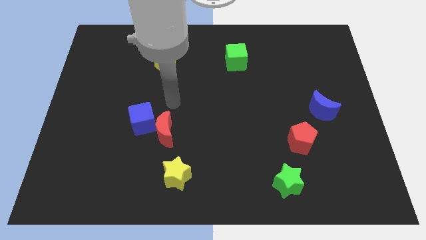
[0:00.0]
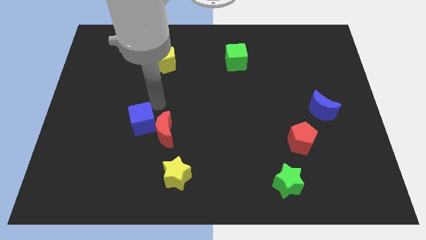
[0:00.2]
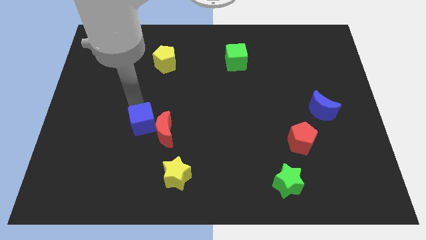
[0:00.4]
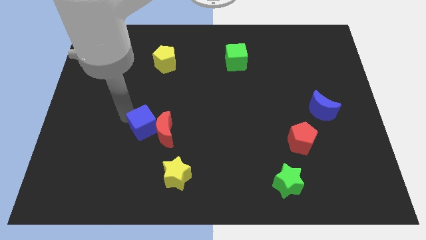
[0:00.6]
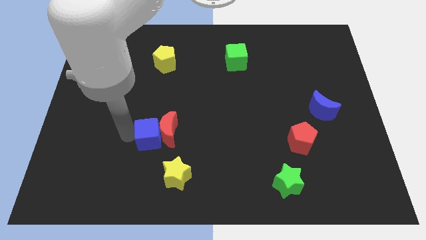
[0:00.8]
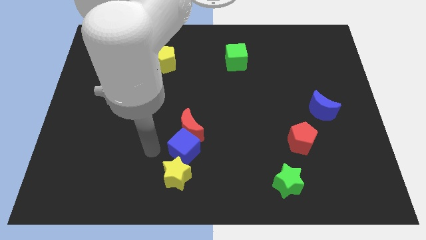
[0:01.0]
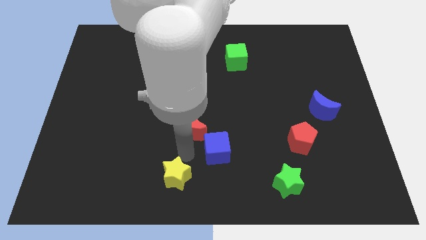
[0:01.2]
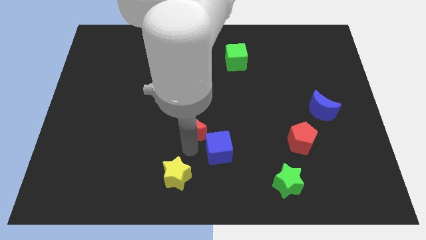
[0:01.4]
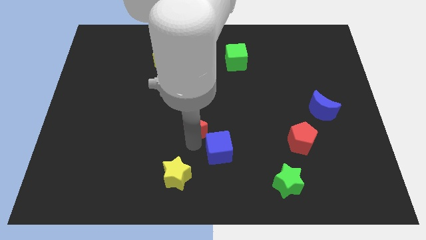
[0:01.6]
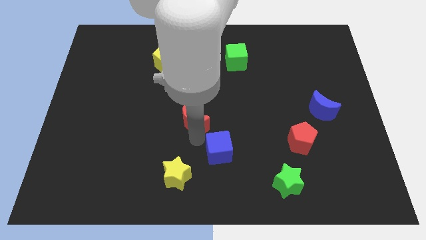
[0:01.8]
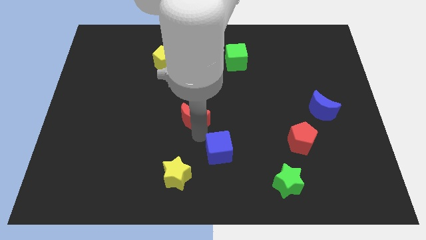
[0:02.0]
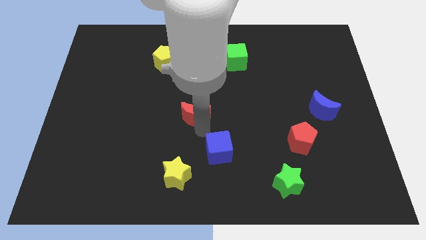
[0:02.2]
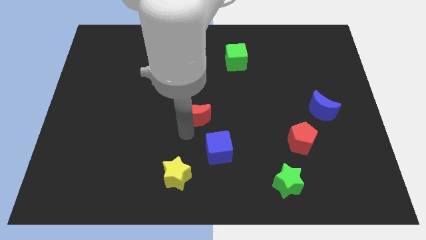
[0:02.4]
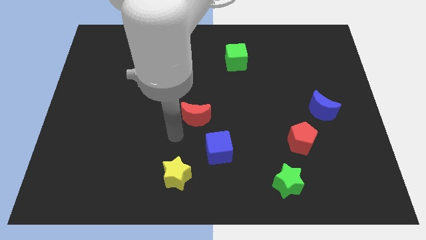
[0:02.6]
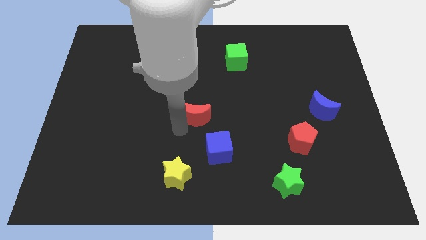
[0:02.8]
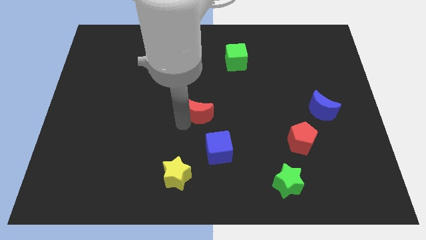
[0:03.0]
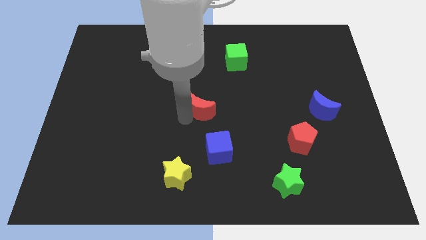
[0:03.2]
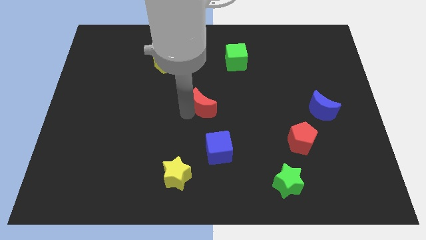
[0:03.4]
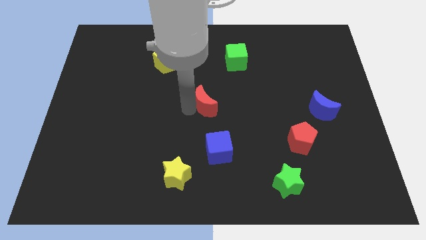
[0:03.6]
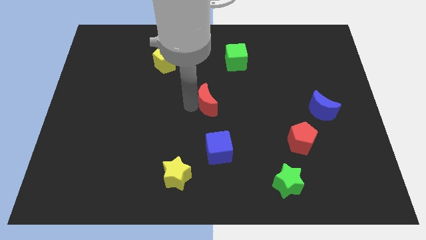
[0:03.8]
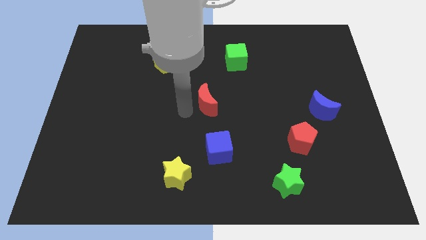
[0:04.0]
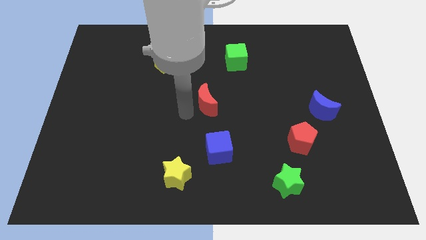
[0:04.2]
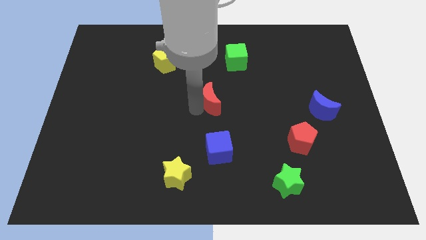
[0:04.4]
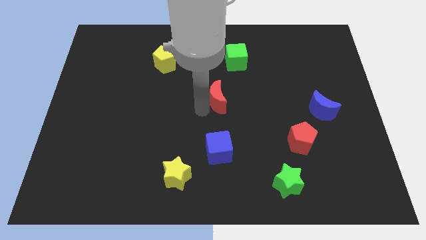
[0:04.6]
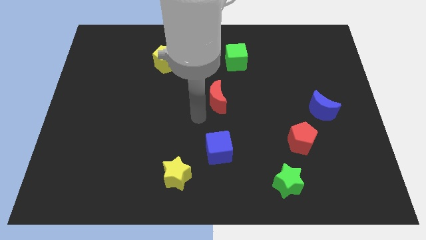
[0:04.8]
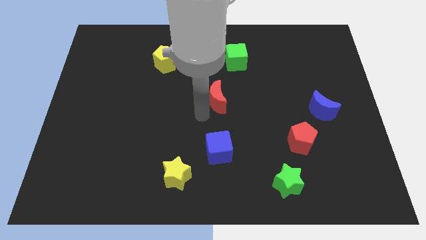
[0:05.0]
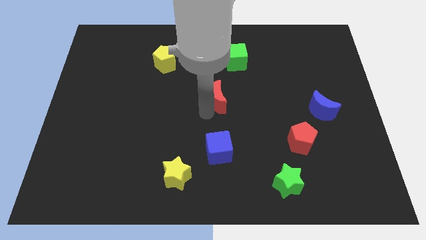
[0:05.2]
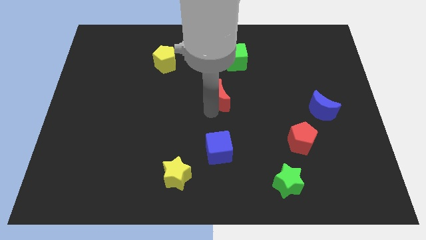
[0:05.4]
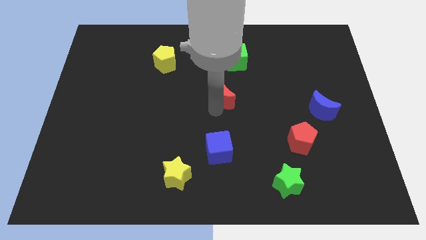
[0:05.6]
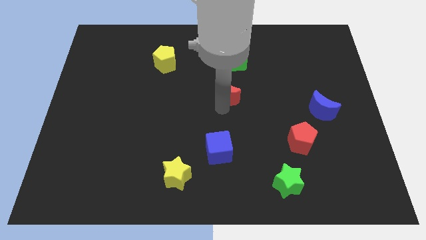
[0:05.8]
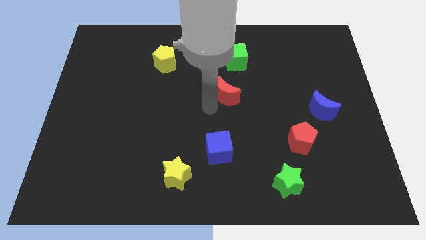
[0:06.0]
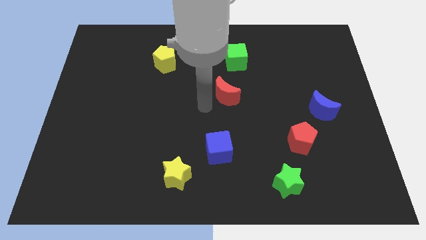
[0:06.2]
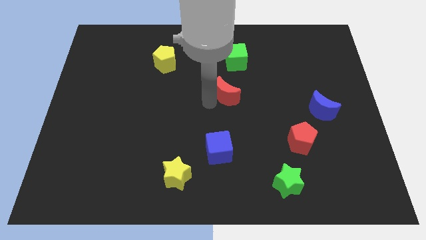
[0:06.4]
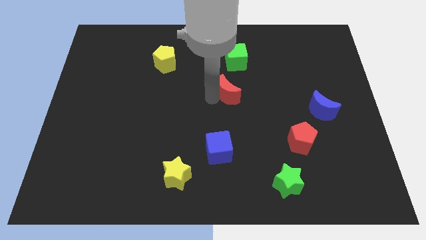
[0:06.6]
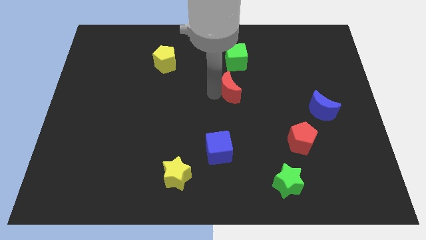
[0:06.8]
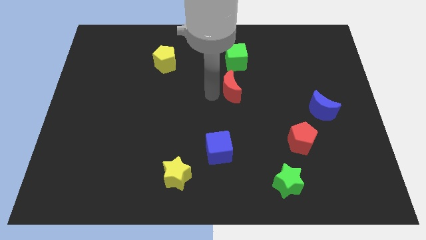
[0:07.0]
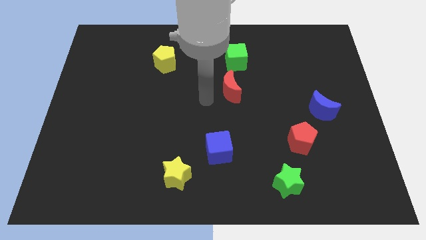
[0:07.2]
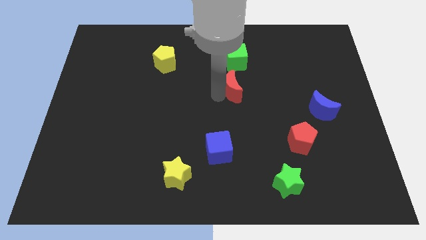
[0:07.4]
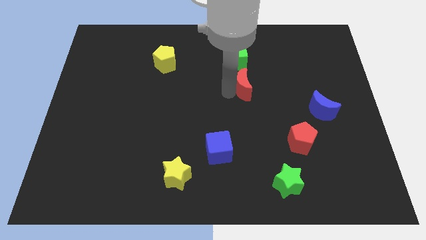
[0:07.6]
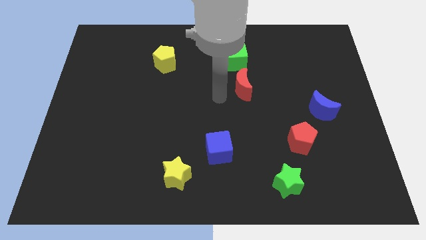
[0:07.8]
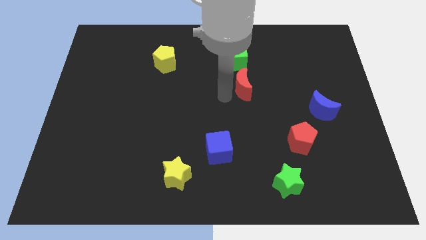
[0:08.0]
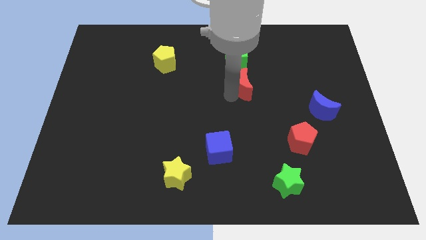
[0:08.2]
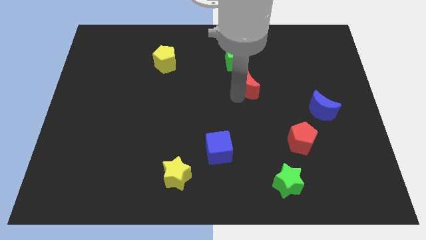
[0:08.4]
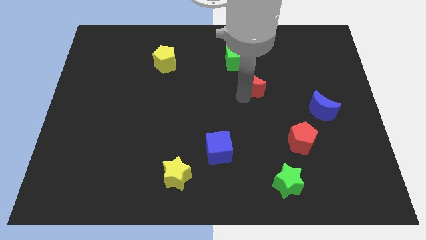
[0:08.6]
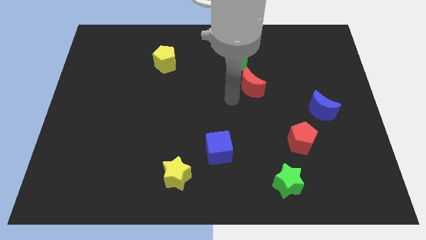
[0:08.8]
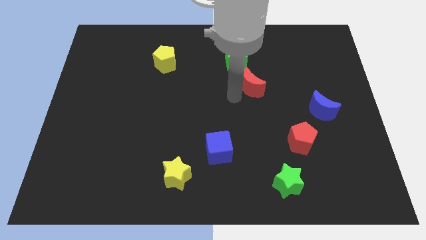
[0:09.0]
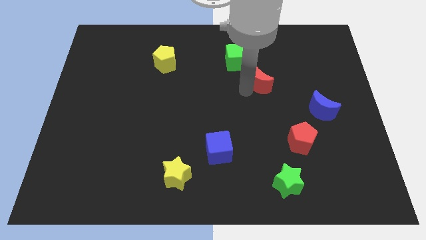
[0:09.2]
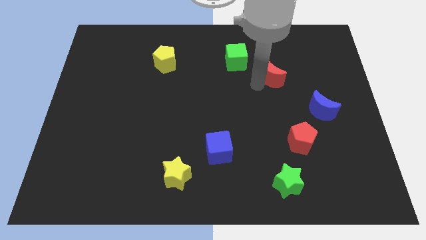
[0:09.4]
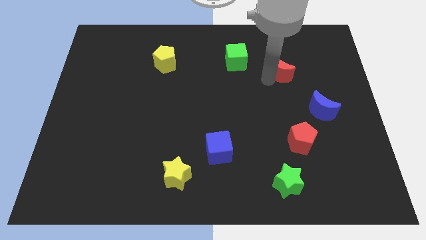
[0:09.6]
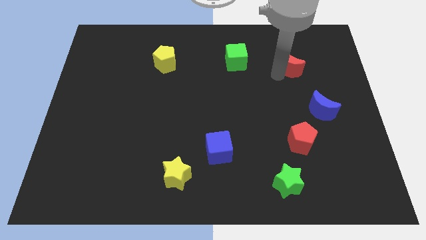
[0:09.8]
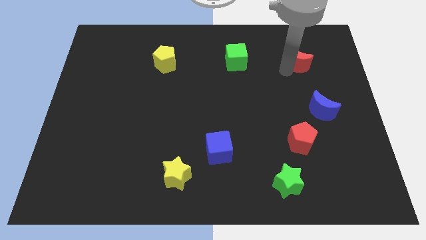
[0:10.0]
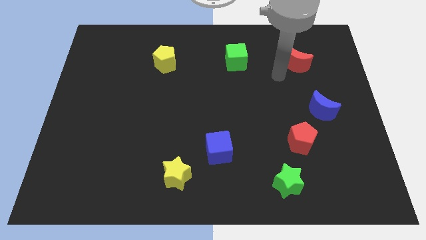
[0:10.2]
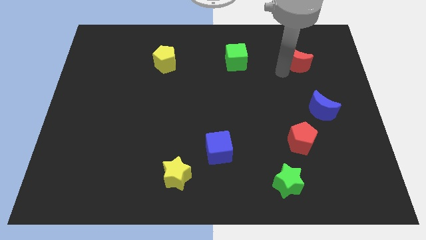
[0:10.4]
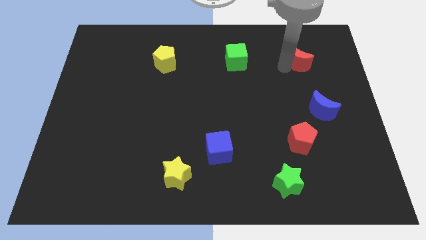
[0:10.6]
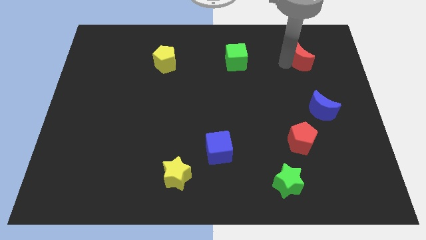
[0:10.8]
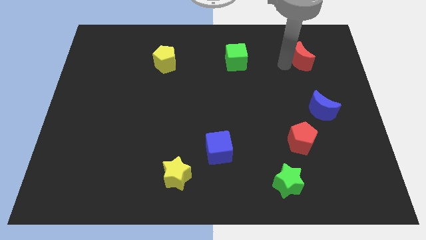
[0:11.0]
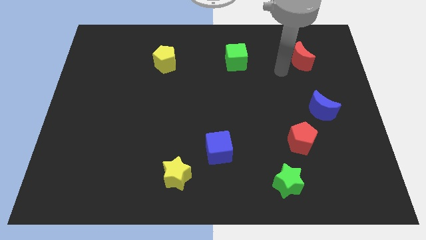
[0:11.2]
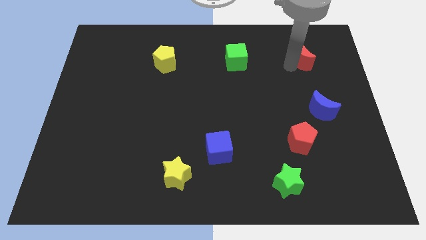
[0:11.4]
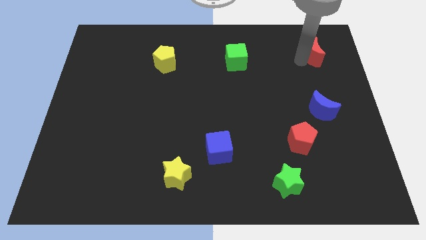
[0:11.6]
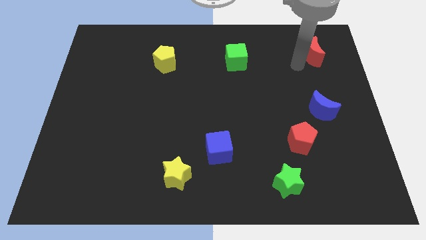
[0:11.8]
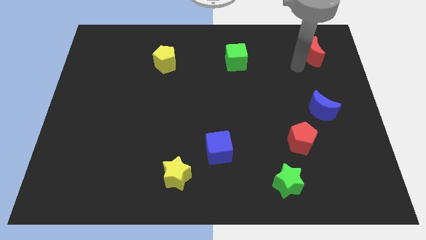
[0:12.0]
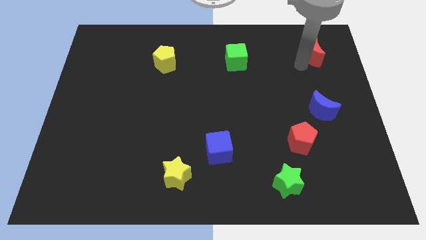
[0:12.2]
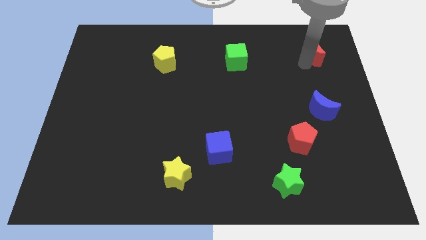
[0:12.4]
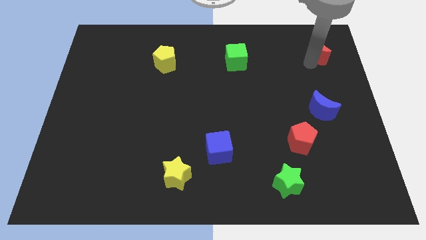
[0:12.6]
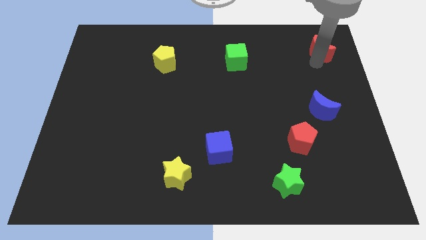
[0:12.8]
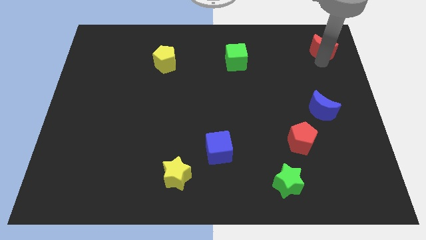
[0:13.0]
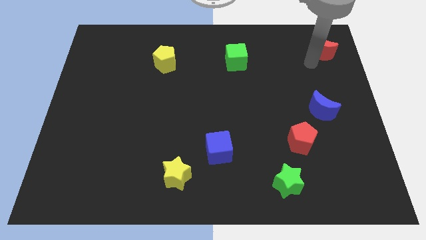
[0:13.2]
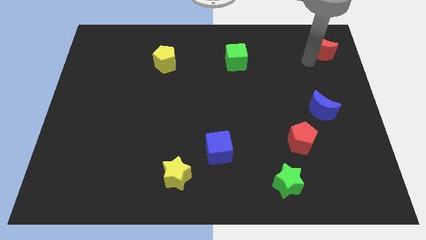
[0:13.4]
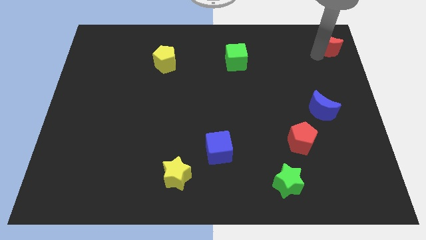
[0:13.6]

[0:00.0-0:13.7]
slide the red moon to the top right

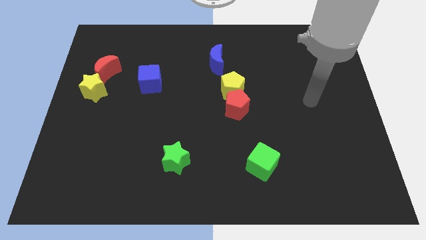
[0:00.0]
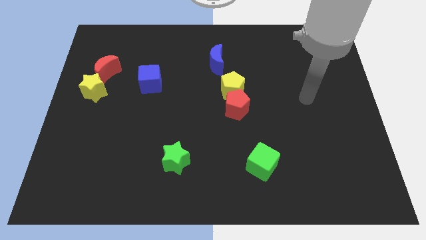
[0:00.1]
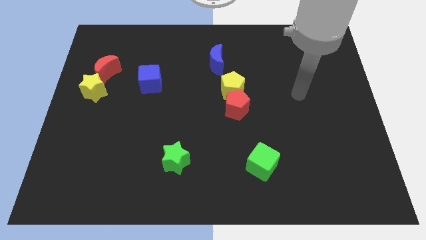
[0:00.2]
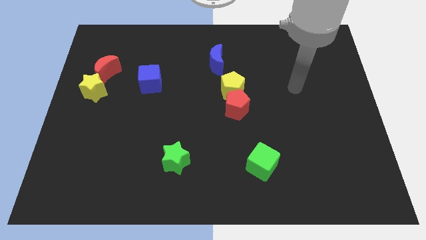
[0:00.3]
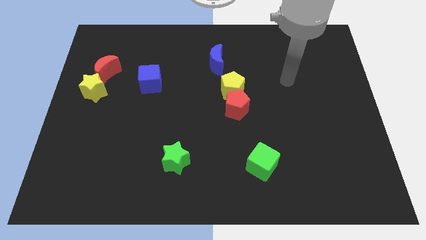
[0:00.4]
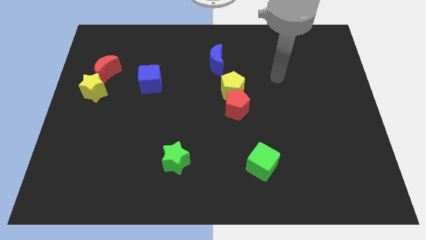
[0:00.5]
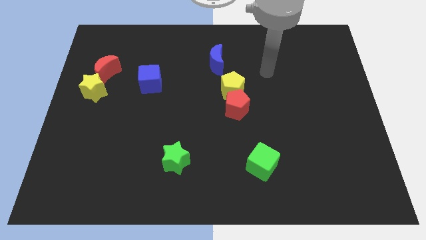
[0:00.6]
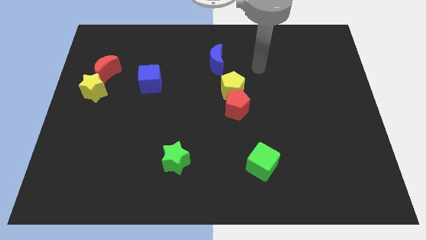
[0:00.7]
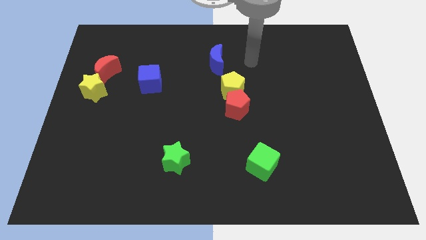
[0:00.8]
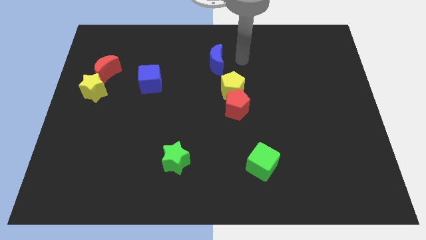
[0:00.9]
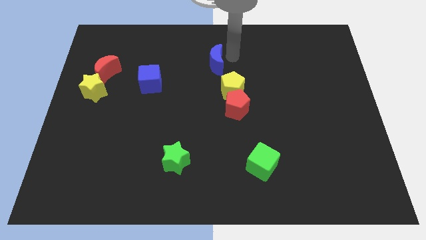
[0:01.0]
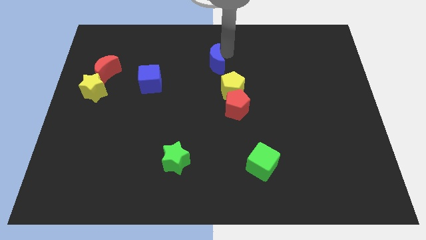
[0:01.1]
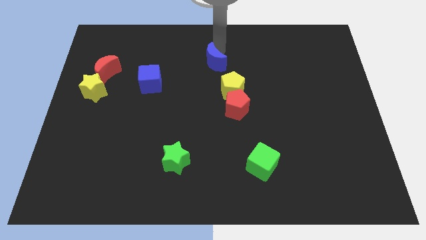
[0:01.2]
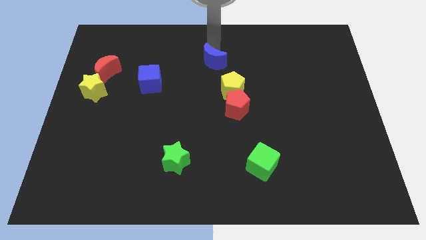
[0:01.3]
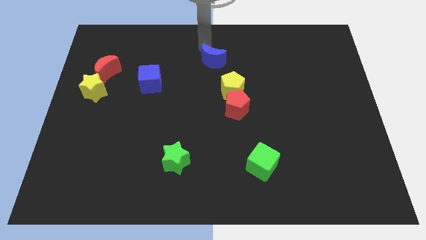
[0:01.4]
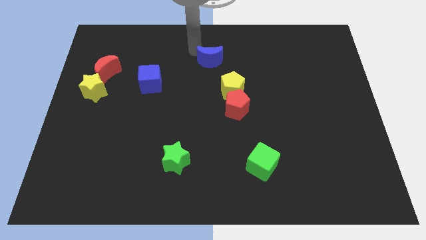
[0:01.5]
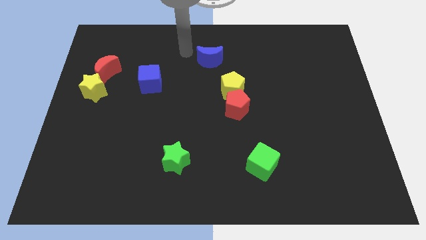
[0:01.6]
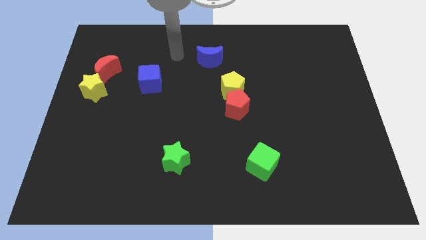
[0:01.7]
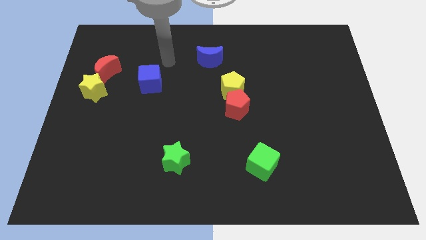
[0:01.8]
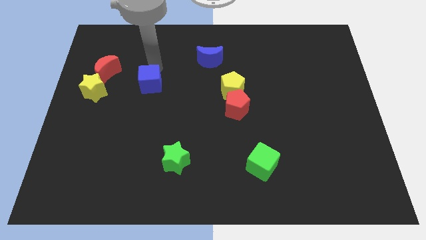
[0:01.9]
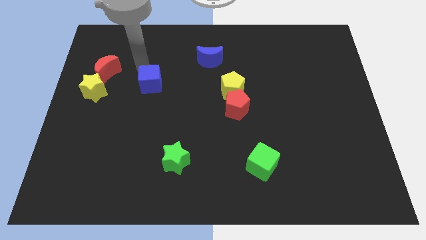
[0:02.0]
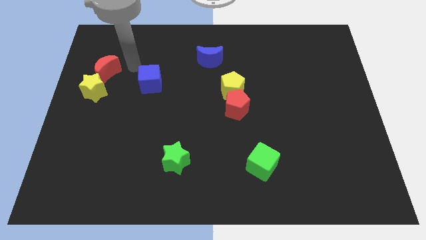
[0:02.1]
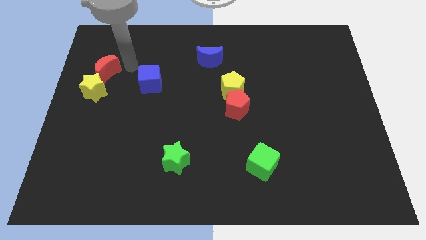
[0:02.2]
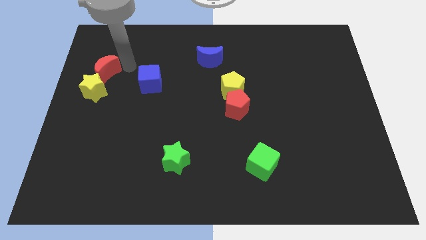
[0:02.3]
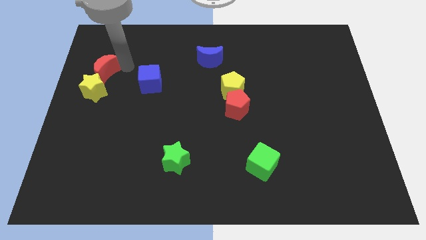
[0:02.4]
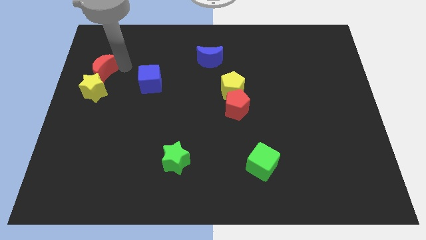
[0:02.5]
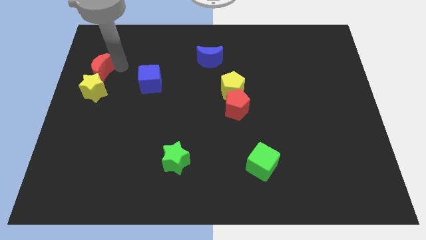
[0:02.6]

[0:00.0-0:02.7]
push the red moon to the center left
